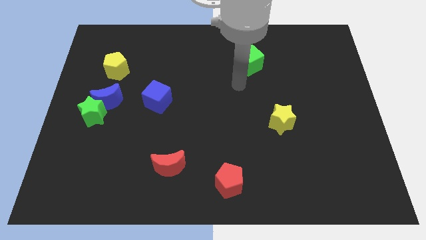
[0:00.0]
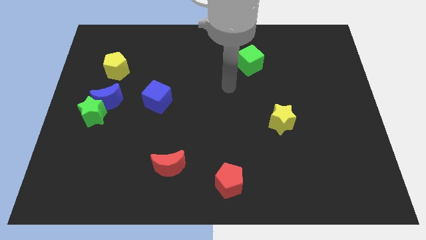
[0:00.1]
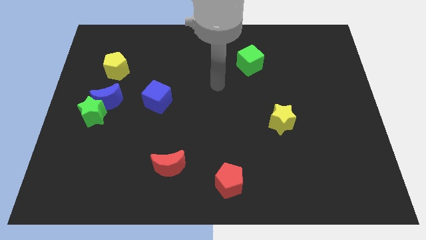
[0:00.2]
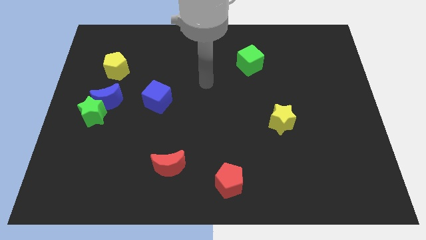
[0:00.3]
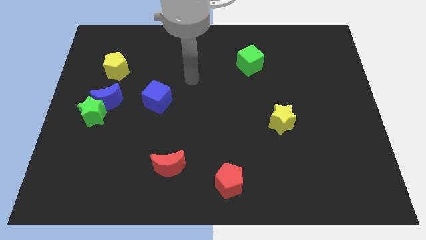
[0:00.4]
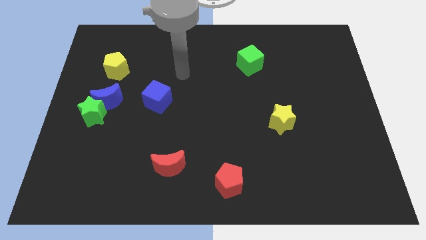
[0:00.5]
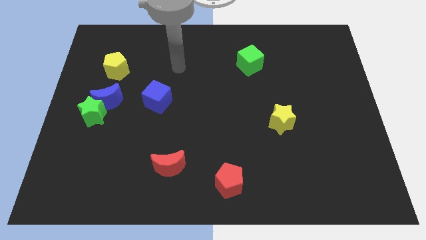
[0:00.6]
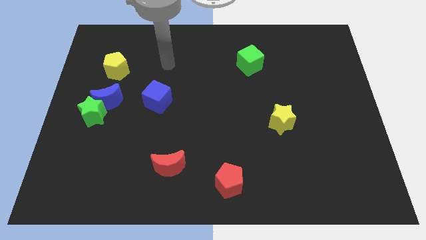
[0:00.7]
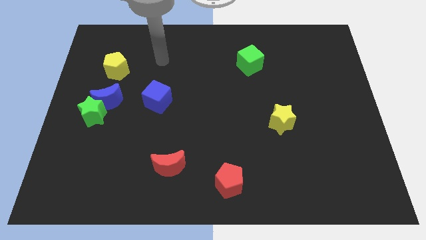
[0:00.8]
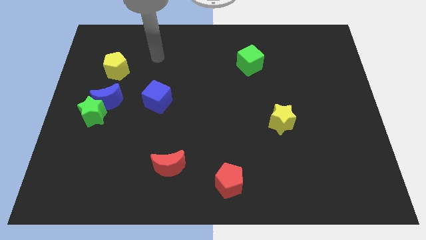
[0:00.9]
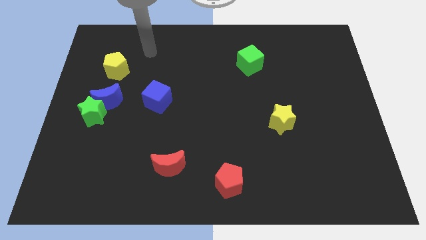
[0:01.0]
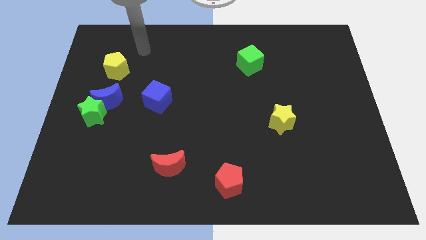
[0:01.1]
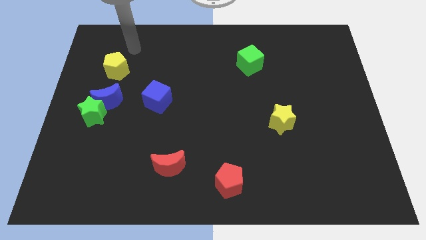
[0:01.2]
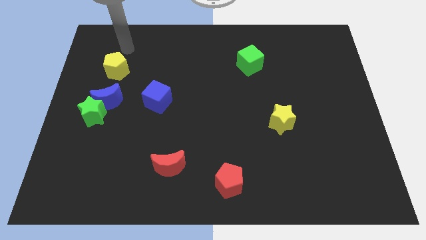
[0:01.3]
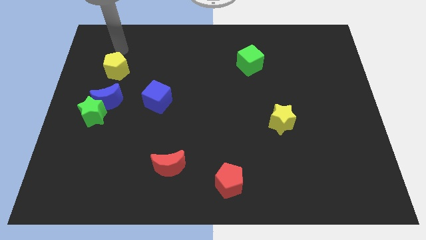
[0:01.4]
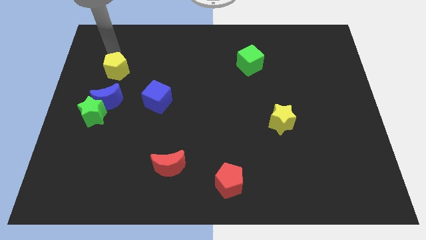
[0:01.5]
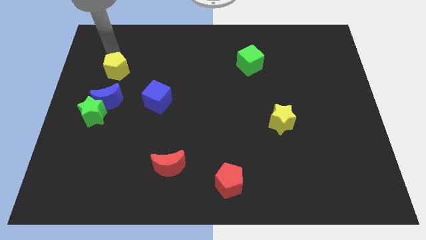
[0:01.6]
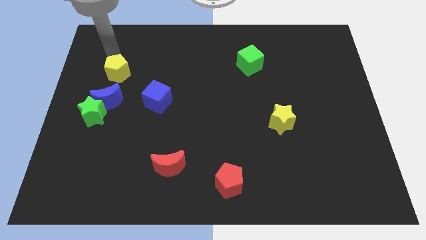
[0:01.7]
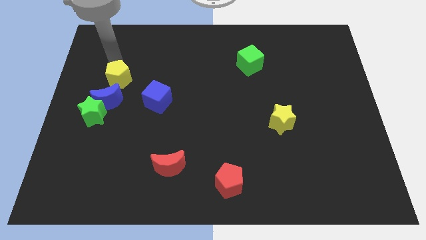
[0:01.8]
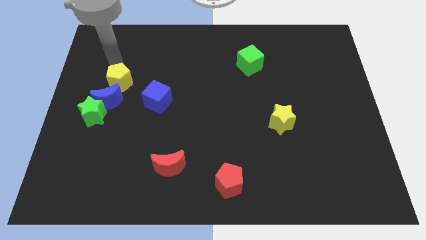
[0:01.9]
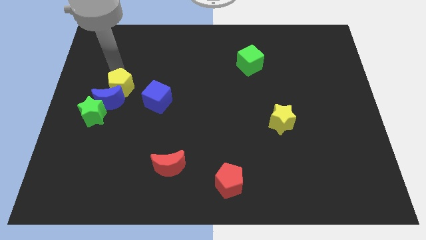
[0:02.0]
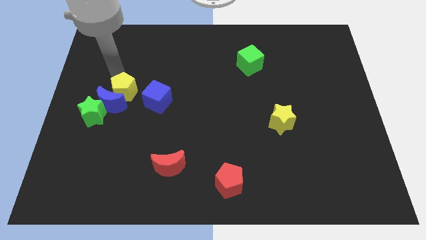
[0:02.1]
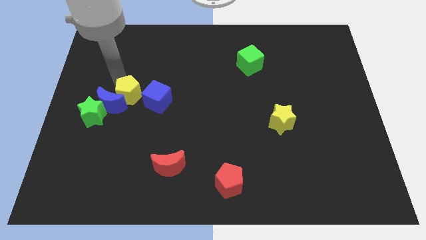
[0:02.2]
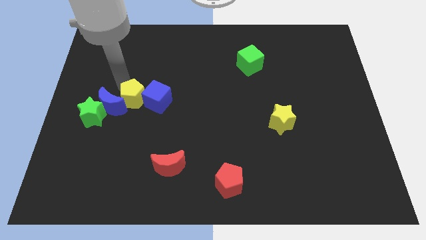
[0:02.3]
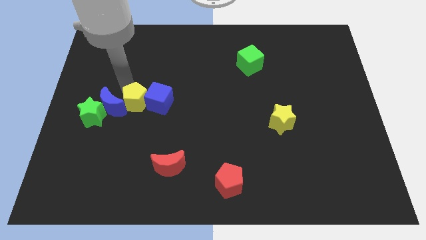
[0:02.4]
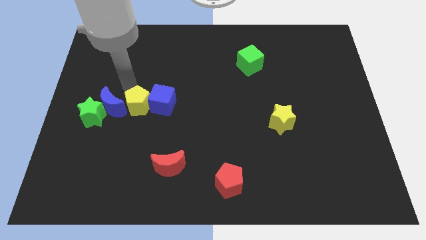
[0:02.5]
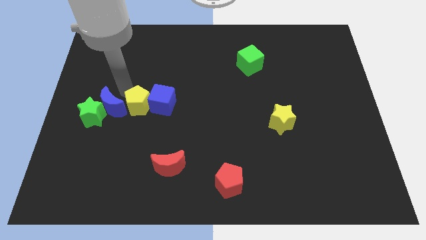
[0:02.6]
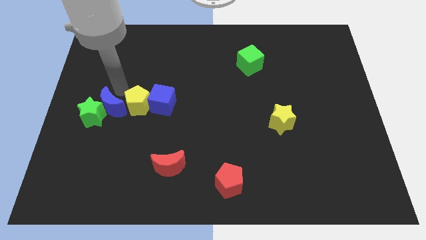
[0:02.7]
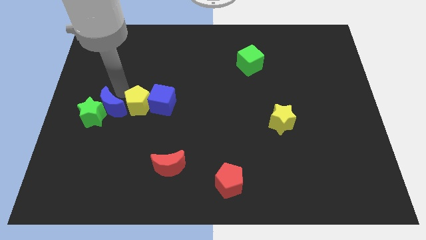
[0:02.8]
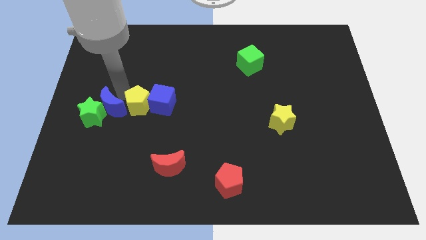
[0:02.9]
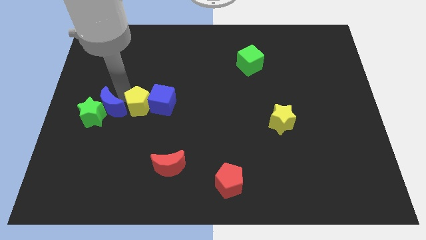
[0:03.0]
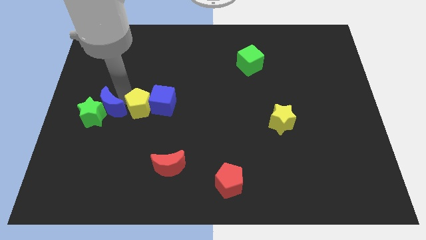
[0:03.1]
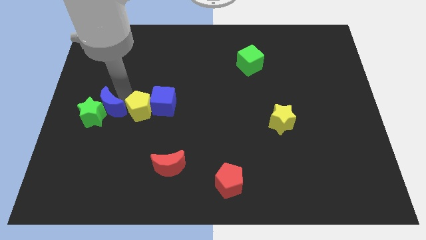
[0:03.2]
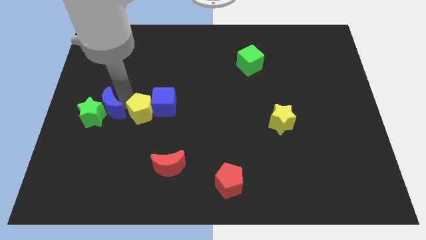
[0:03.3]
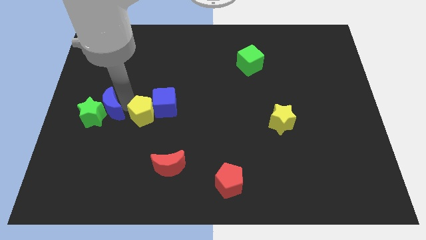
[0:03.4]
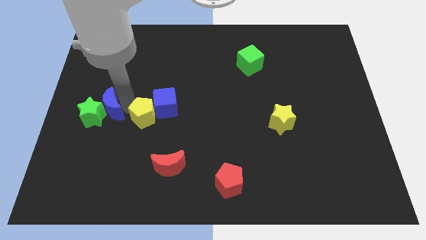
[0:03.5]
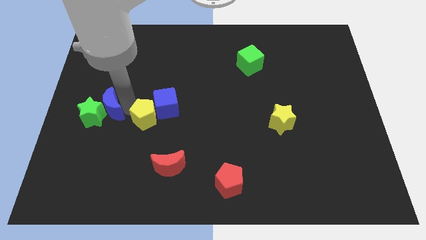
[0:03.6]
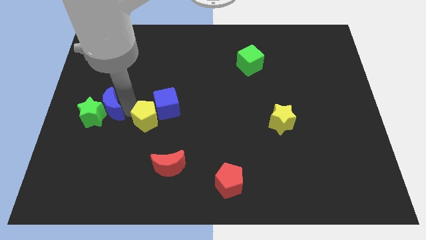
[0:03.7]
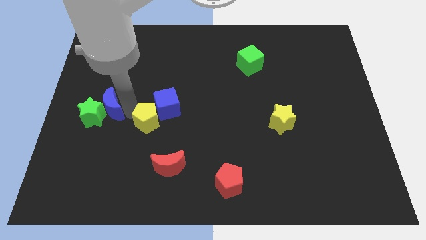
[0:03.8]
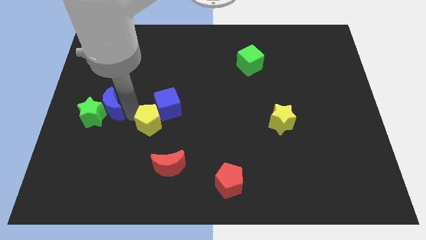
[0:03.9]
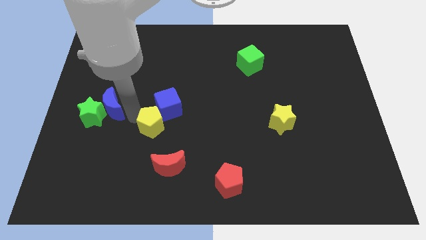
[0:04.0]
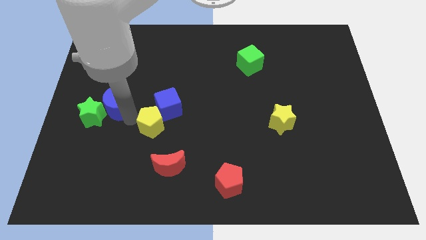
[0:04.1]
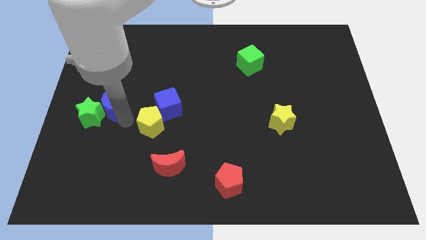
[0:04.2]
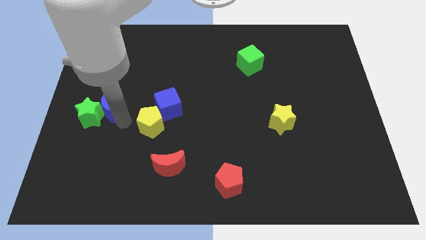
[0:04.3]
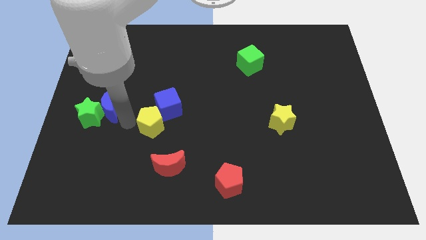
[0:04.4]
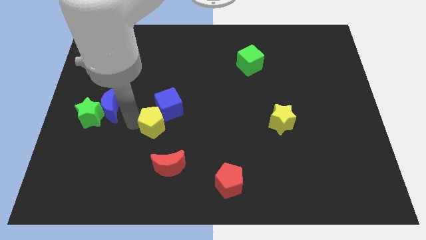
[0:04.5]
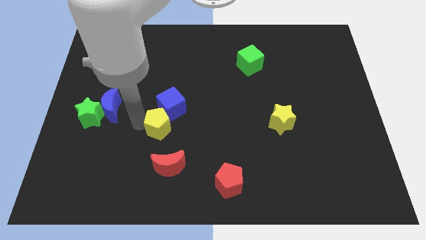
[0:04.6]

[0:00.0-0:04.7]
slide the yellow pentagon diagonally downwards and right

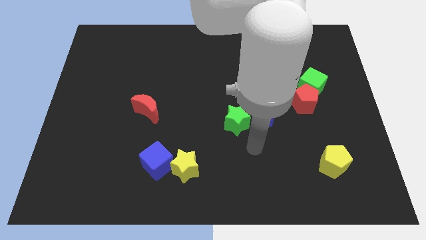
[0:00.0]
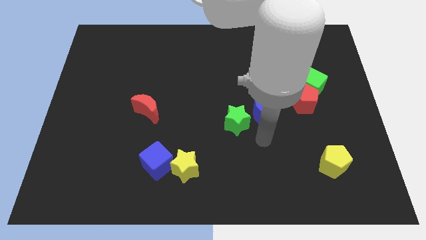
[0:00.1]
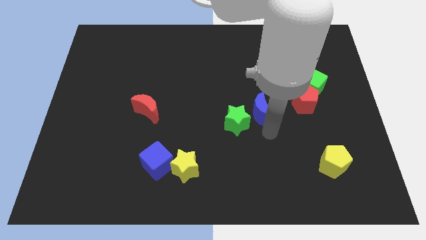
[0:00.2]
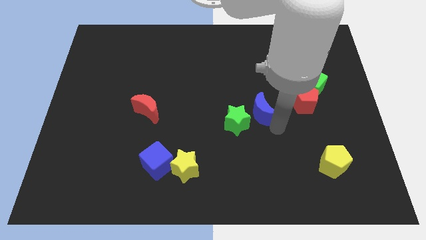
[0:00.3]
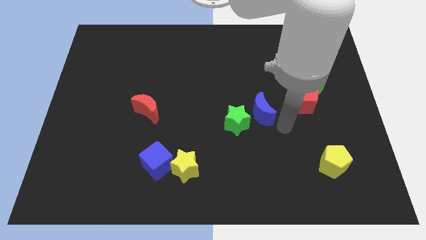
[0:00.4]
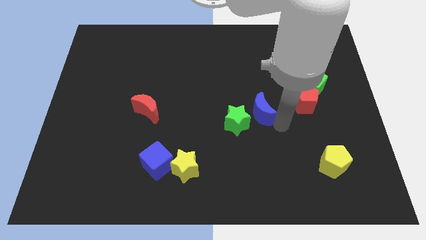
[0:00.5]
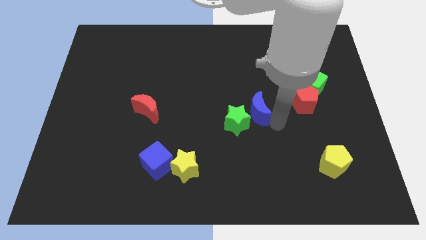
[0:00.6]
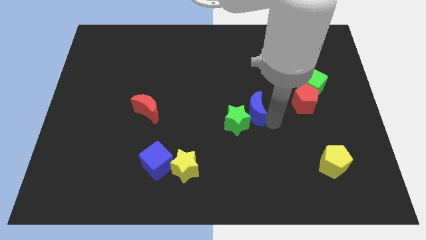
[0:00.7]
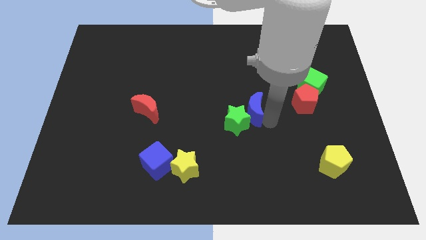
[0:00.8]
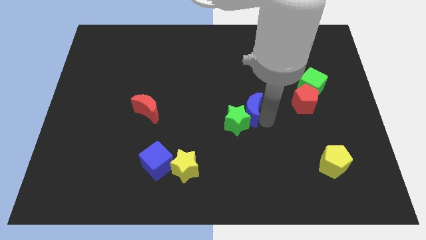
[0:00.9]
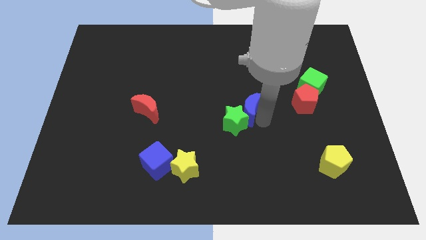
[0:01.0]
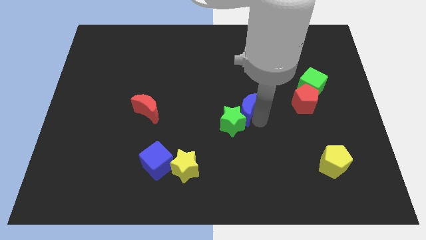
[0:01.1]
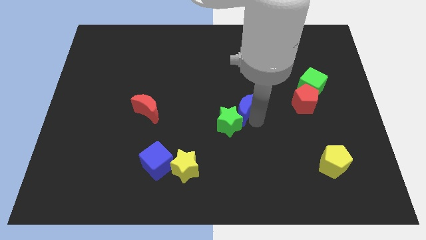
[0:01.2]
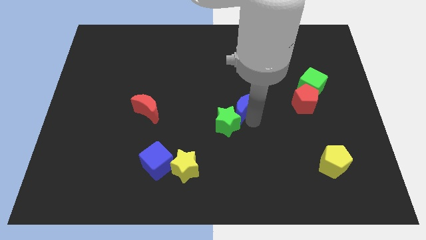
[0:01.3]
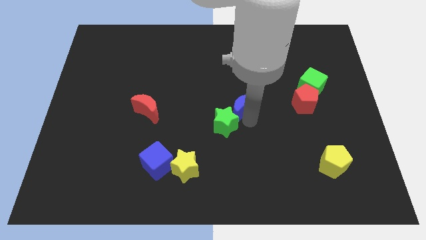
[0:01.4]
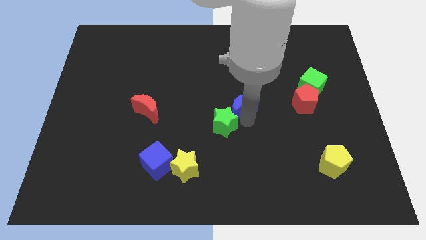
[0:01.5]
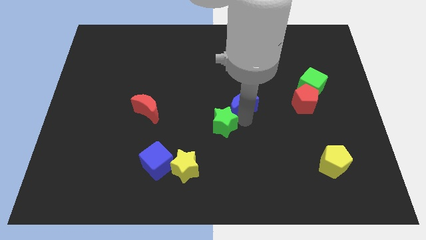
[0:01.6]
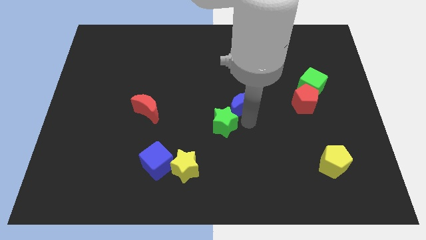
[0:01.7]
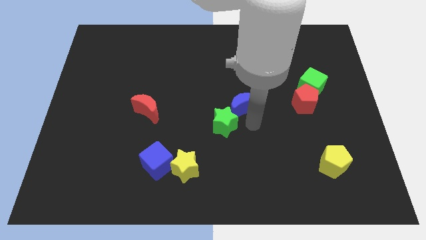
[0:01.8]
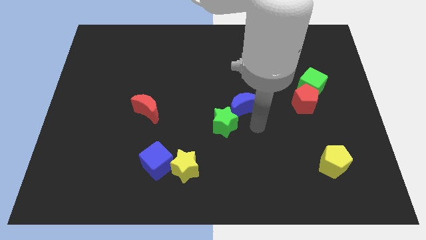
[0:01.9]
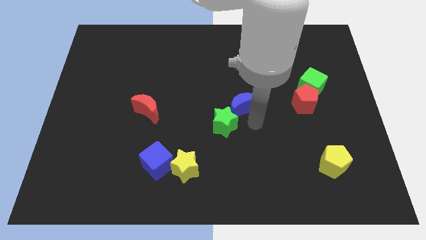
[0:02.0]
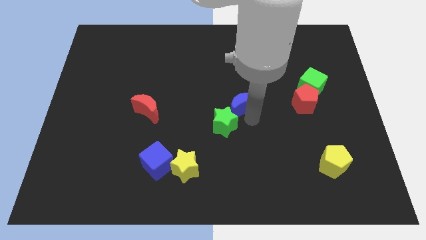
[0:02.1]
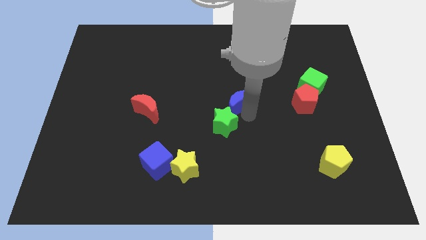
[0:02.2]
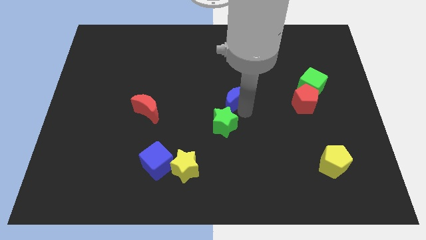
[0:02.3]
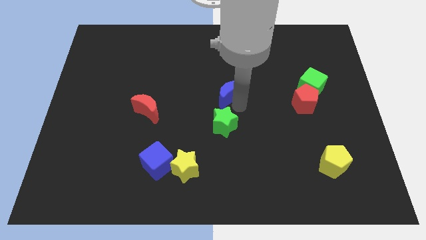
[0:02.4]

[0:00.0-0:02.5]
slightly slide the blue moon up and to the left diagonally

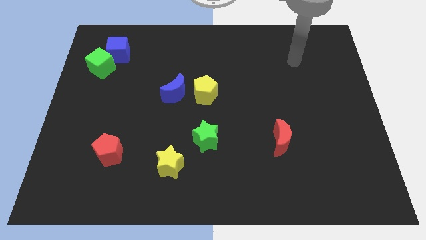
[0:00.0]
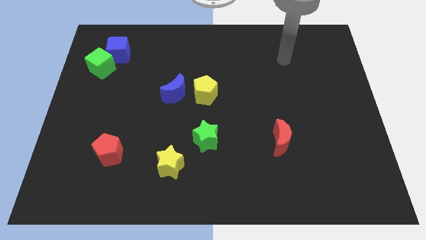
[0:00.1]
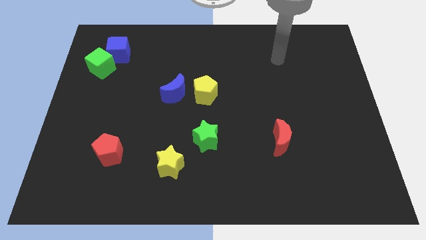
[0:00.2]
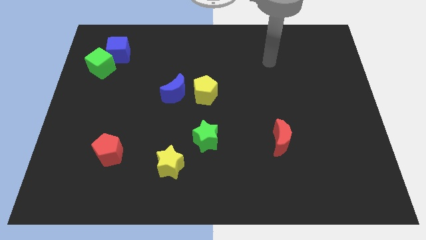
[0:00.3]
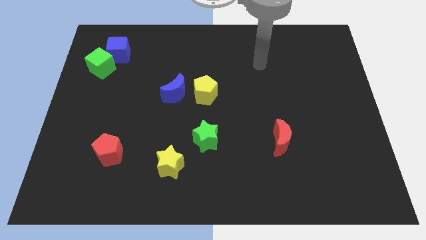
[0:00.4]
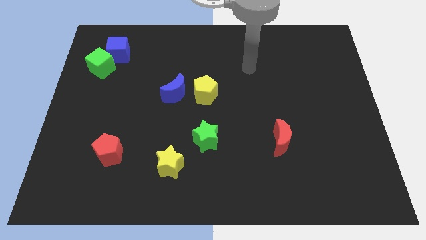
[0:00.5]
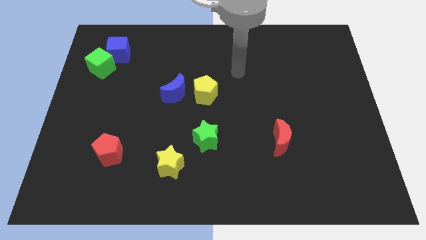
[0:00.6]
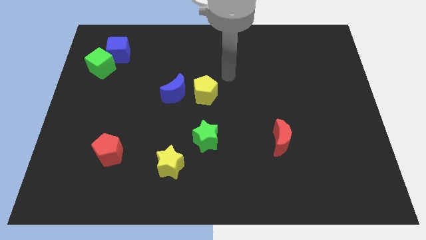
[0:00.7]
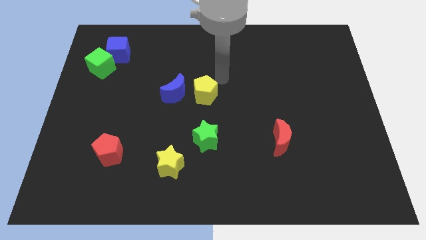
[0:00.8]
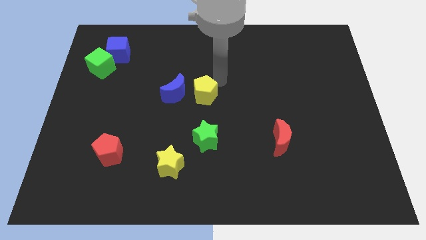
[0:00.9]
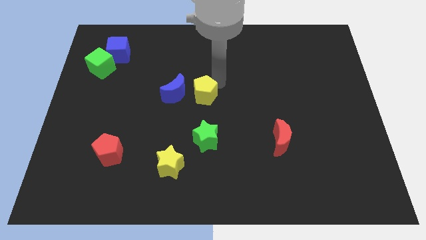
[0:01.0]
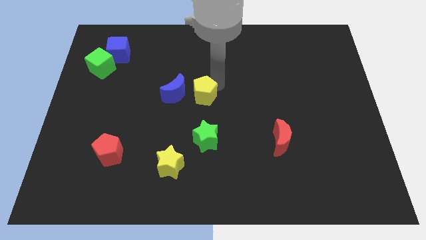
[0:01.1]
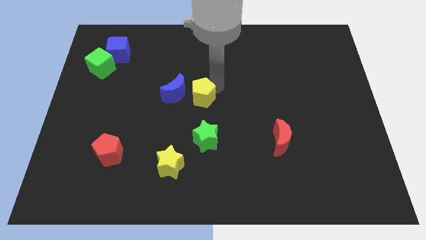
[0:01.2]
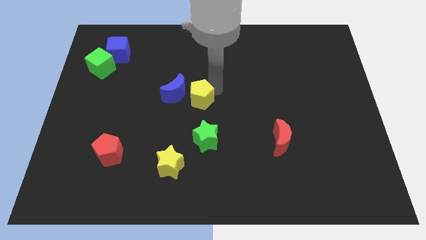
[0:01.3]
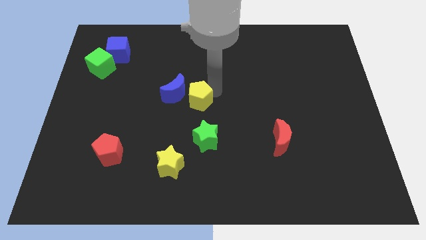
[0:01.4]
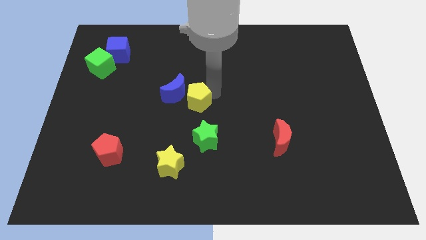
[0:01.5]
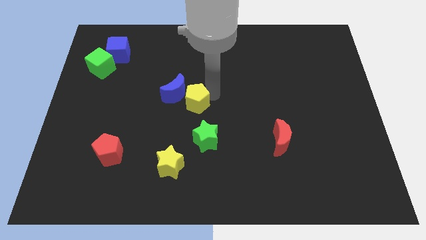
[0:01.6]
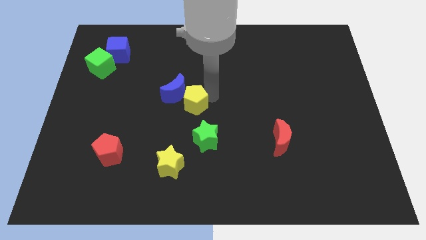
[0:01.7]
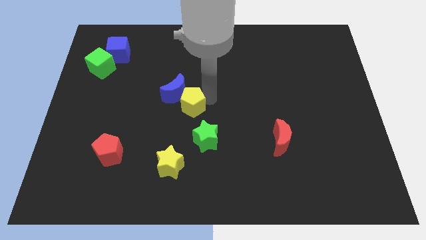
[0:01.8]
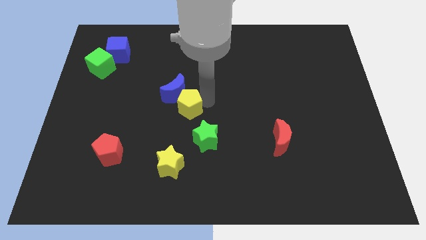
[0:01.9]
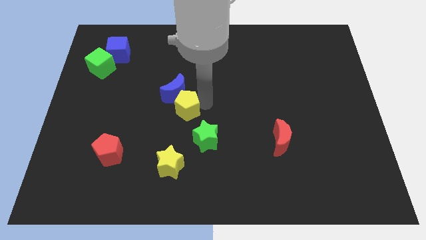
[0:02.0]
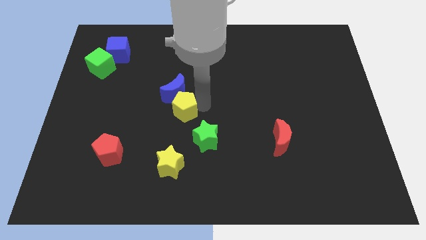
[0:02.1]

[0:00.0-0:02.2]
slightly push the yellow pentagon downwards and left
